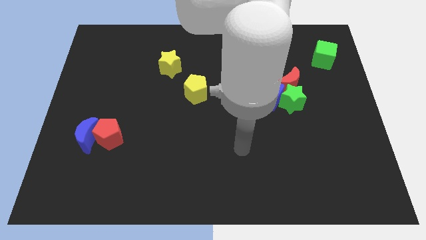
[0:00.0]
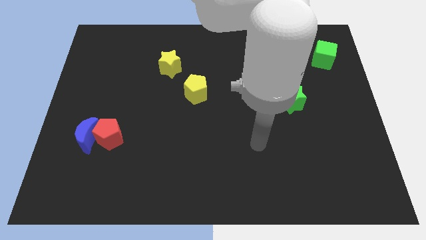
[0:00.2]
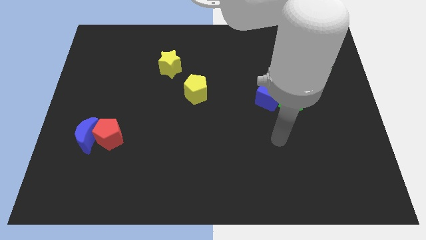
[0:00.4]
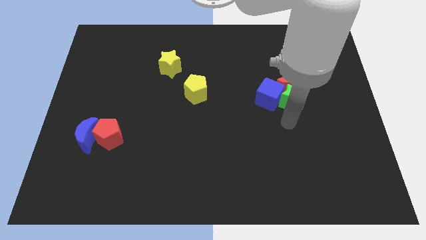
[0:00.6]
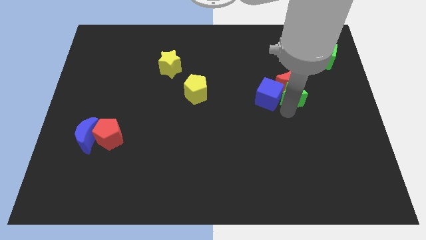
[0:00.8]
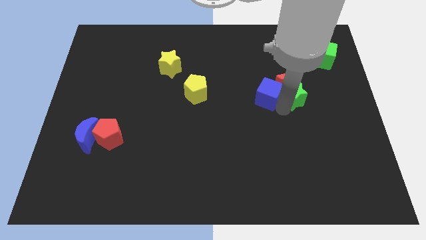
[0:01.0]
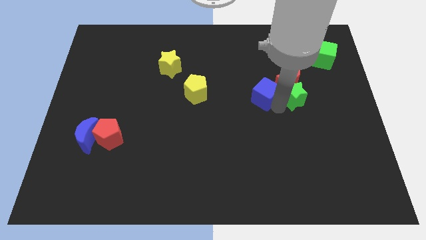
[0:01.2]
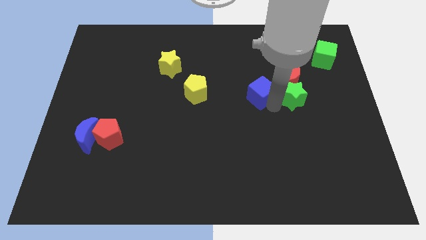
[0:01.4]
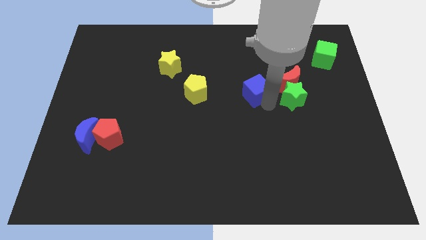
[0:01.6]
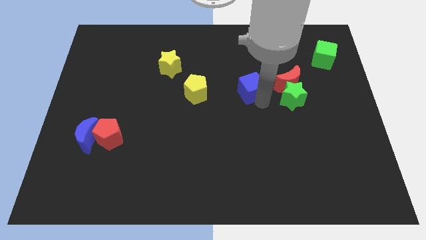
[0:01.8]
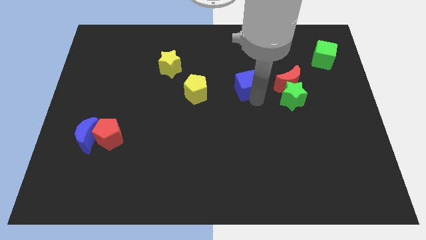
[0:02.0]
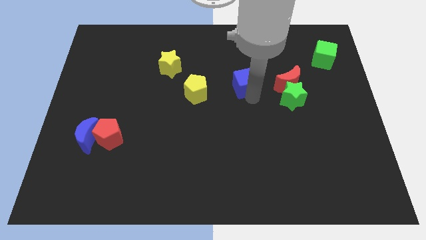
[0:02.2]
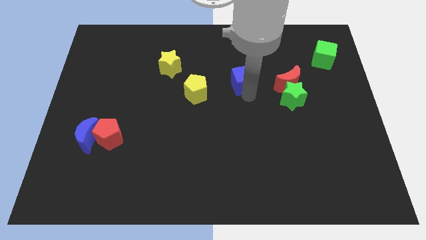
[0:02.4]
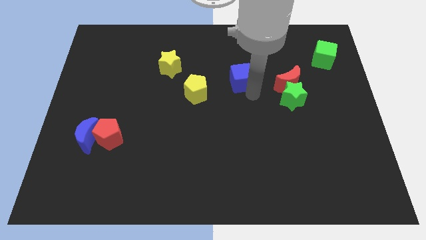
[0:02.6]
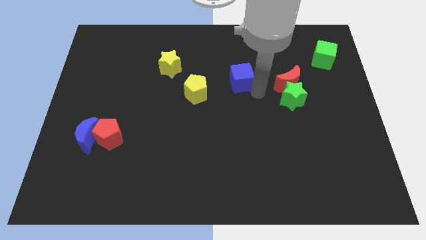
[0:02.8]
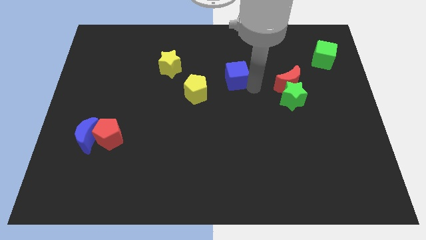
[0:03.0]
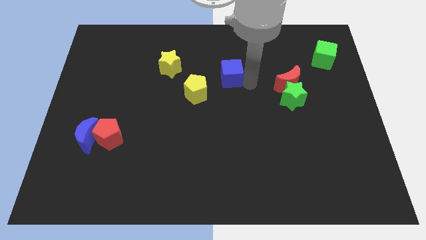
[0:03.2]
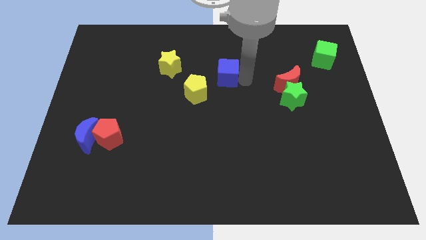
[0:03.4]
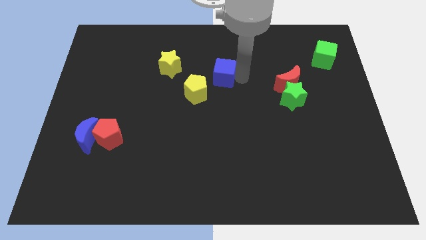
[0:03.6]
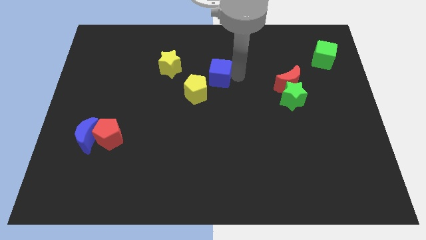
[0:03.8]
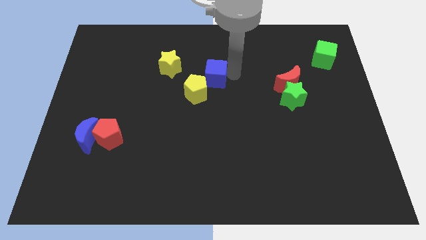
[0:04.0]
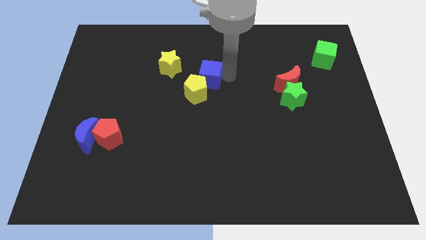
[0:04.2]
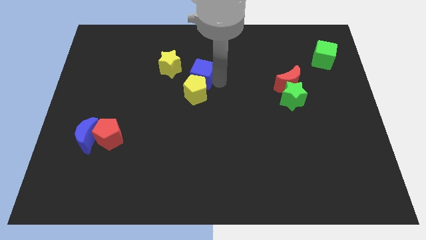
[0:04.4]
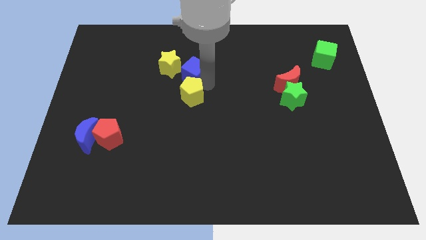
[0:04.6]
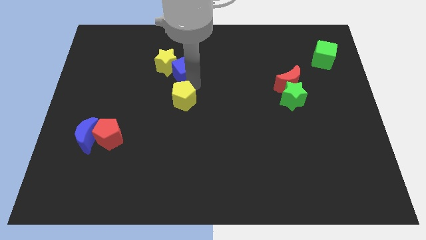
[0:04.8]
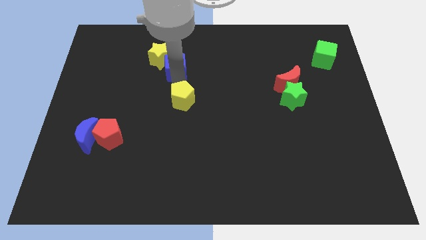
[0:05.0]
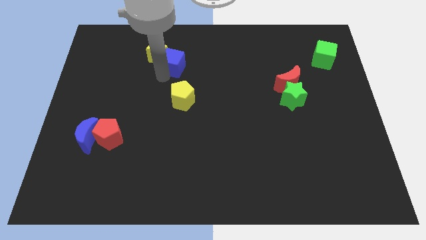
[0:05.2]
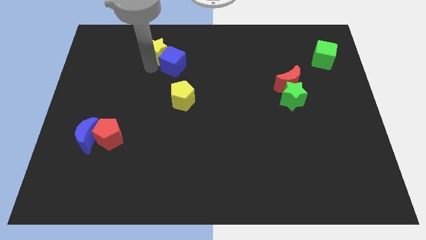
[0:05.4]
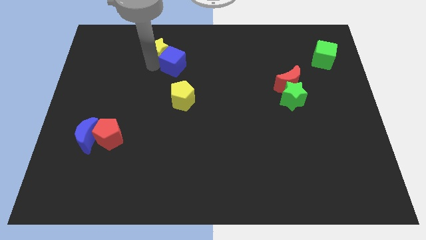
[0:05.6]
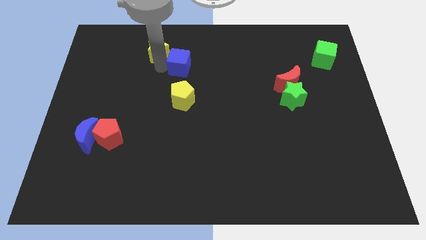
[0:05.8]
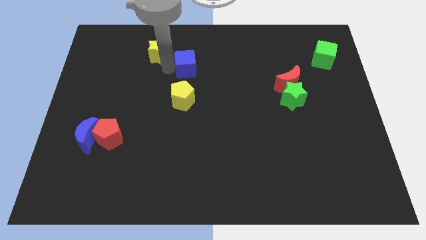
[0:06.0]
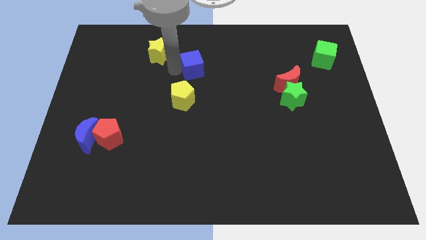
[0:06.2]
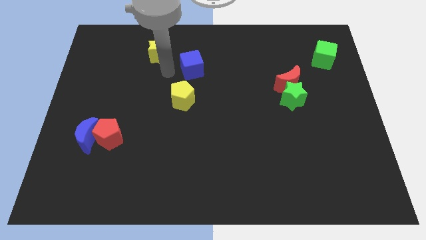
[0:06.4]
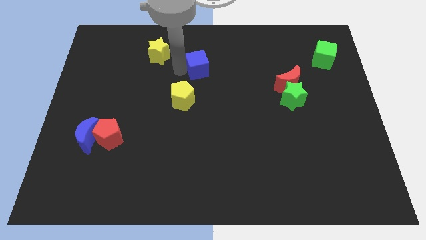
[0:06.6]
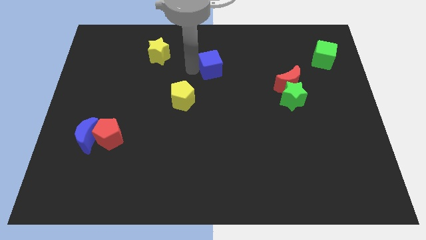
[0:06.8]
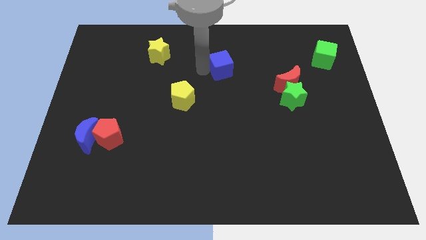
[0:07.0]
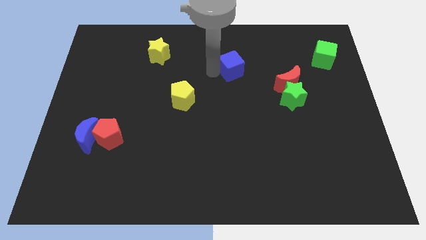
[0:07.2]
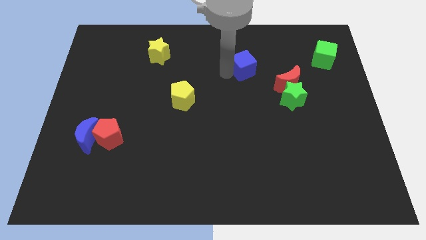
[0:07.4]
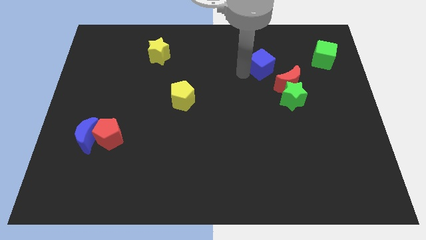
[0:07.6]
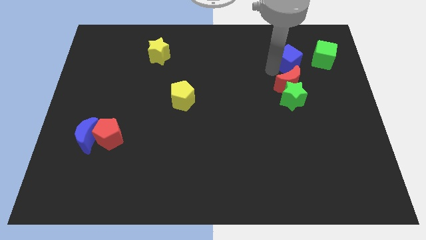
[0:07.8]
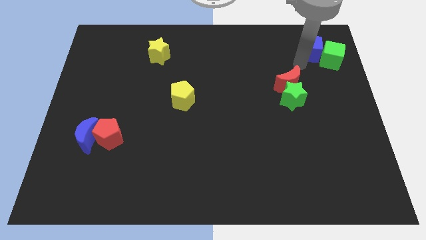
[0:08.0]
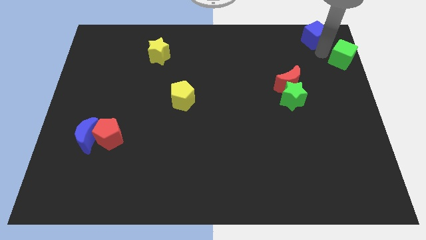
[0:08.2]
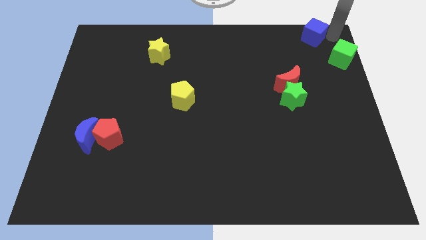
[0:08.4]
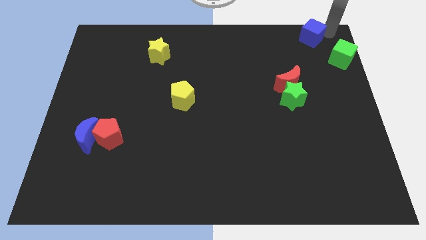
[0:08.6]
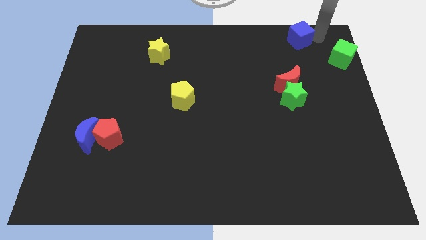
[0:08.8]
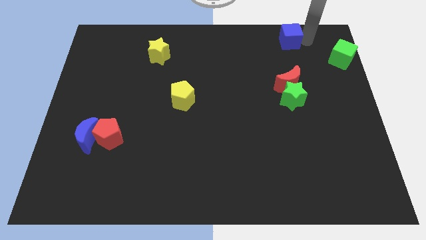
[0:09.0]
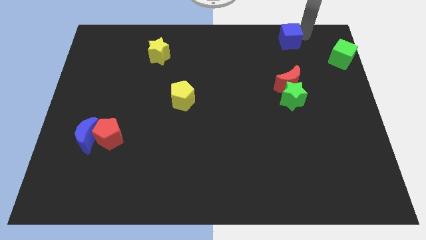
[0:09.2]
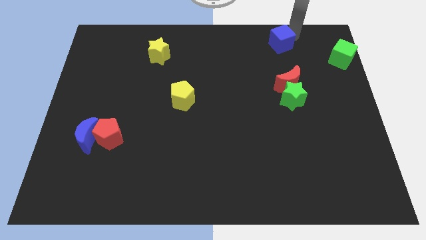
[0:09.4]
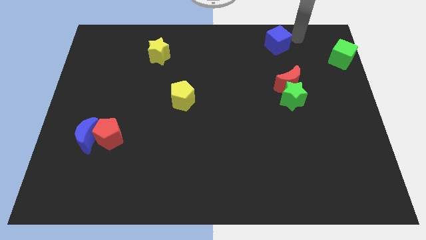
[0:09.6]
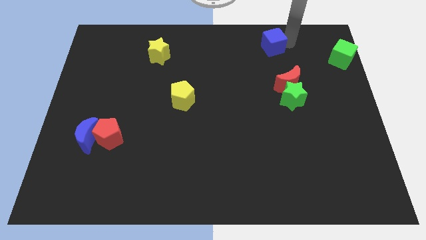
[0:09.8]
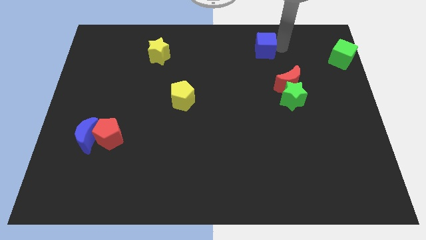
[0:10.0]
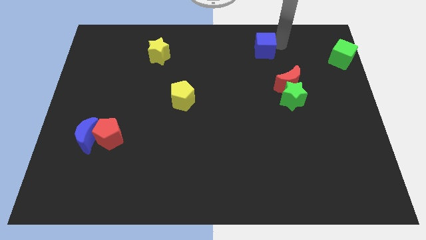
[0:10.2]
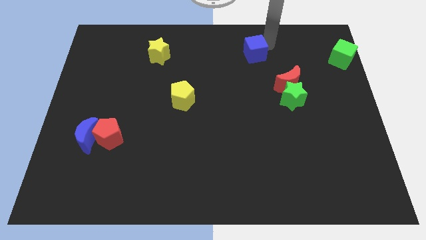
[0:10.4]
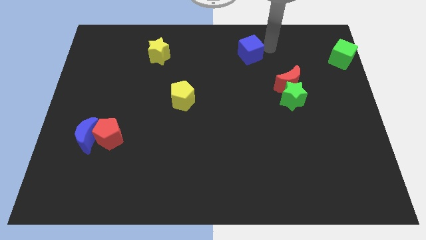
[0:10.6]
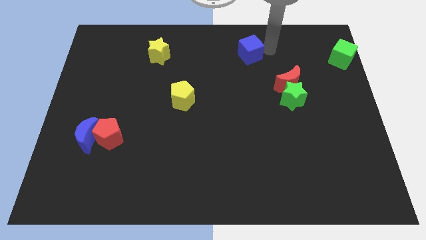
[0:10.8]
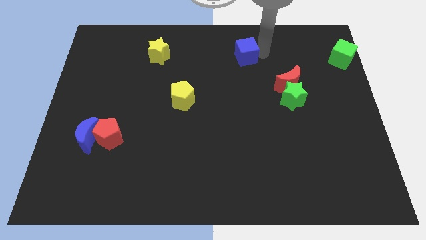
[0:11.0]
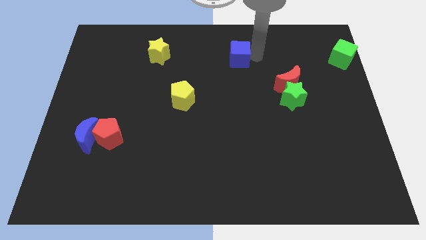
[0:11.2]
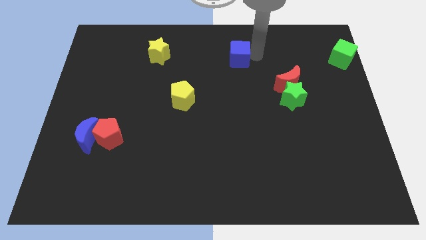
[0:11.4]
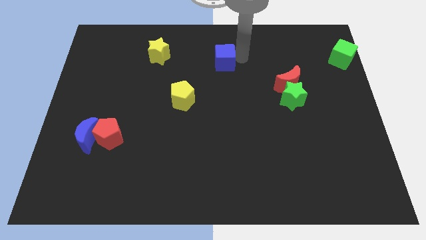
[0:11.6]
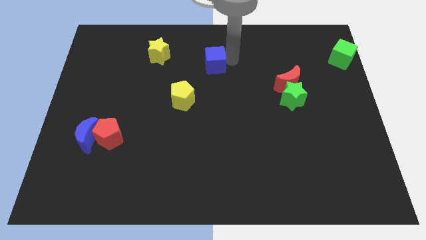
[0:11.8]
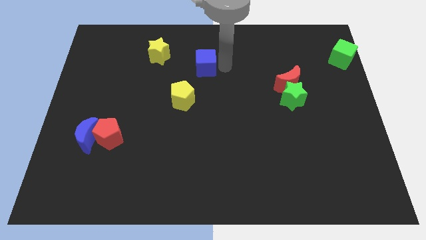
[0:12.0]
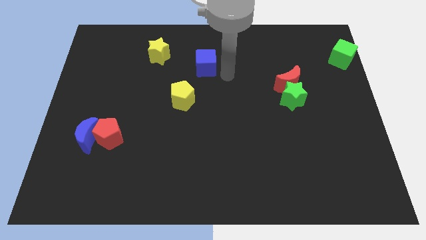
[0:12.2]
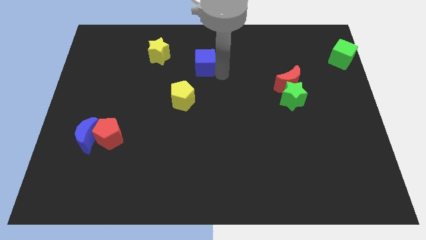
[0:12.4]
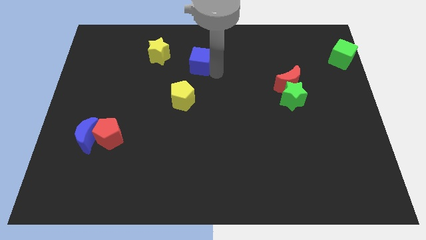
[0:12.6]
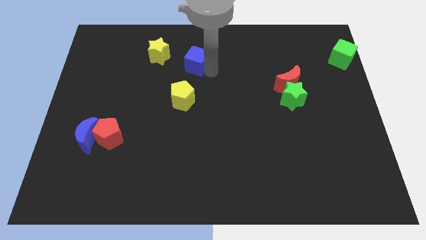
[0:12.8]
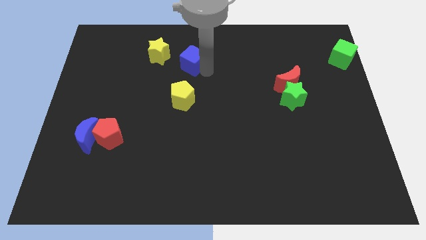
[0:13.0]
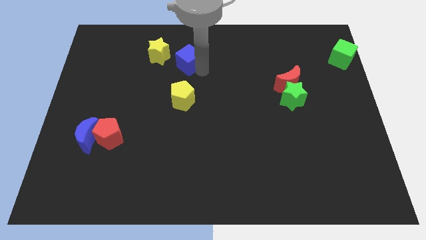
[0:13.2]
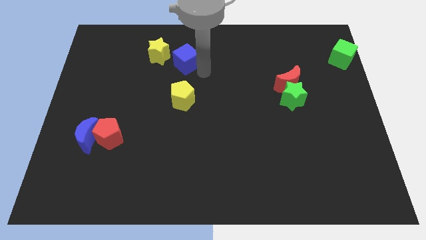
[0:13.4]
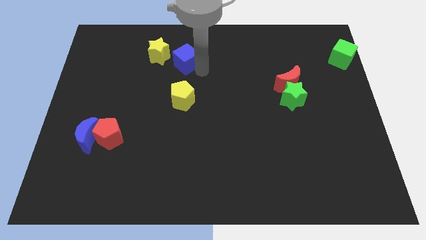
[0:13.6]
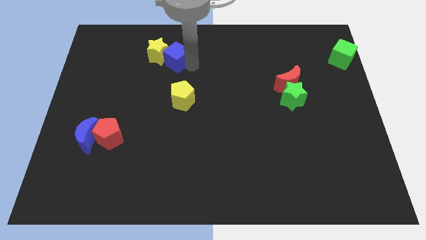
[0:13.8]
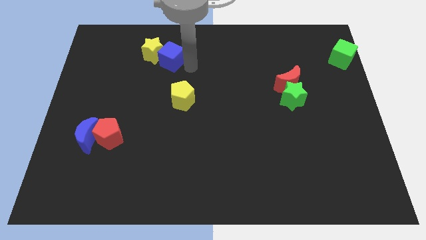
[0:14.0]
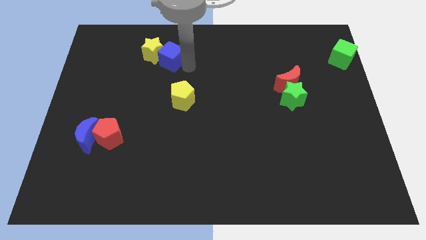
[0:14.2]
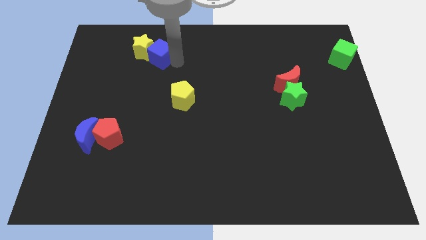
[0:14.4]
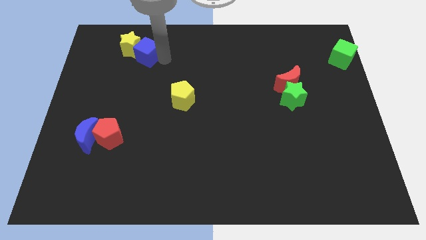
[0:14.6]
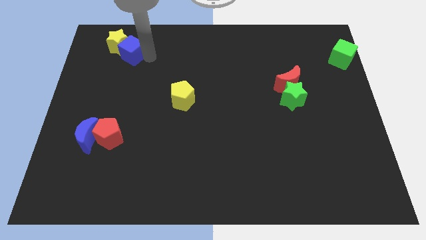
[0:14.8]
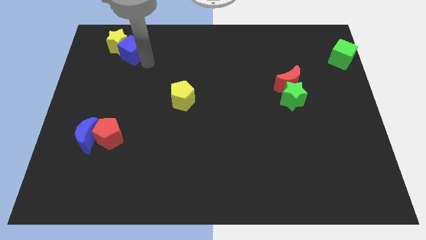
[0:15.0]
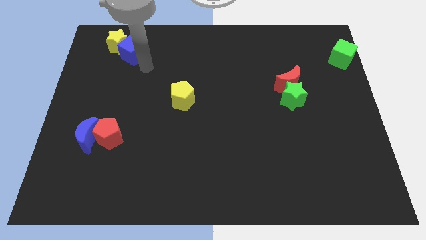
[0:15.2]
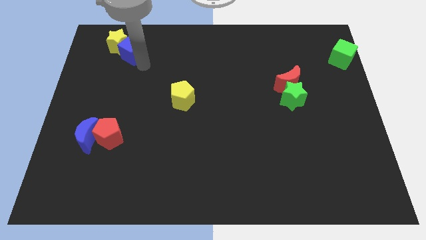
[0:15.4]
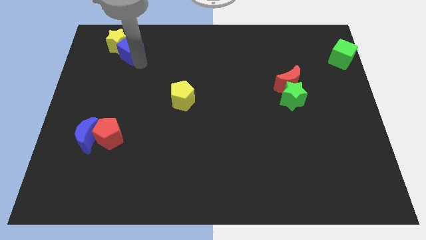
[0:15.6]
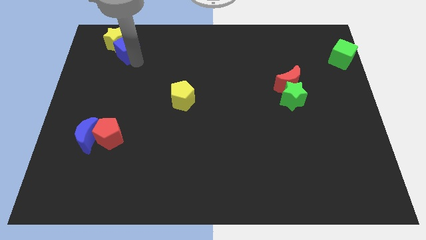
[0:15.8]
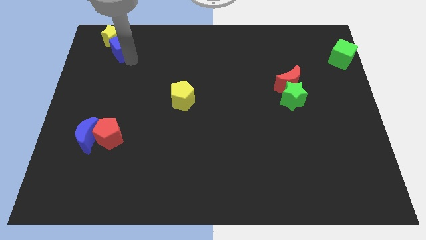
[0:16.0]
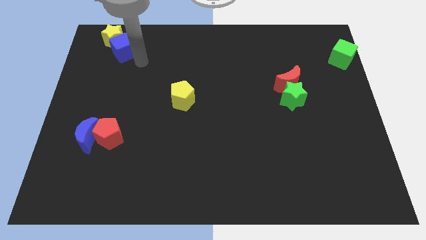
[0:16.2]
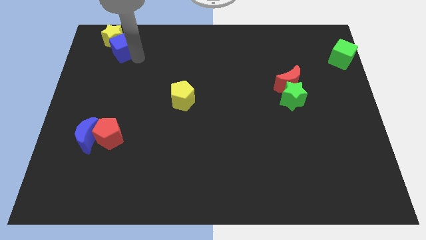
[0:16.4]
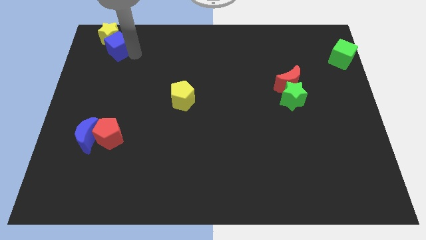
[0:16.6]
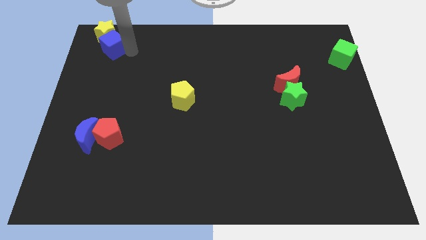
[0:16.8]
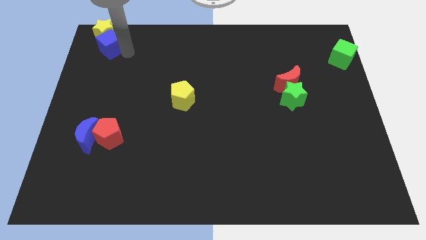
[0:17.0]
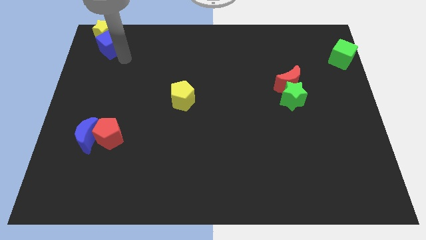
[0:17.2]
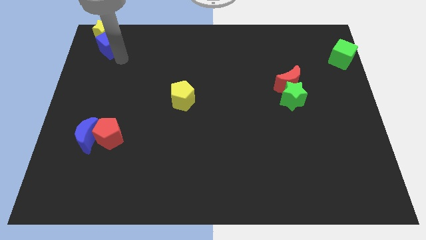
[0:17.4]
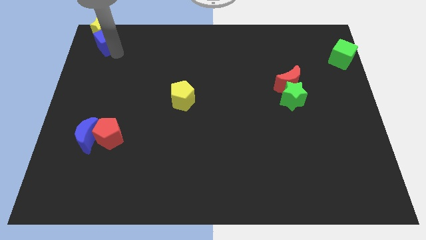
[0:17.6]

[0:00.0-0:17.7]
move the blue cube to the top left of the board
